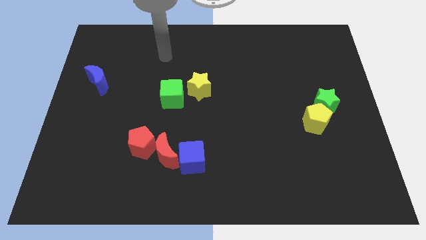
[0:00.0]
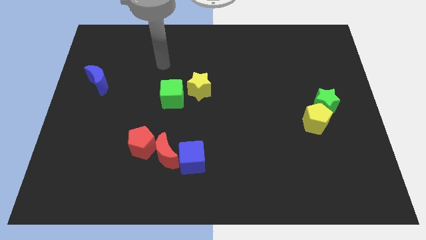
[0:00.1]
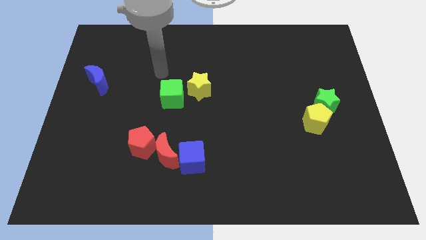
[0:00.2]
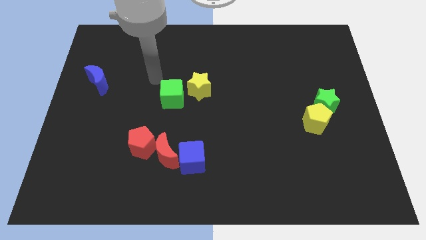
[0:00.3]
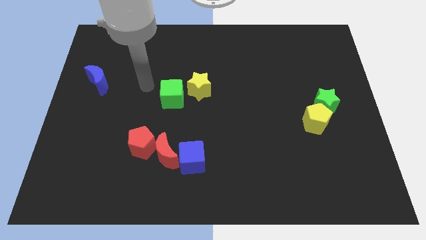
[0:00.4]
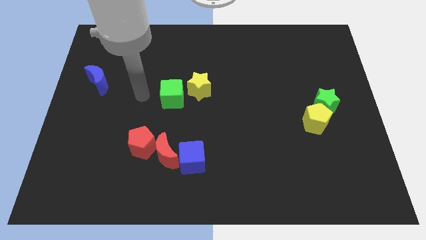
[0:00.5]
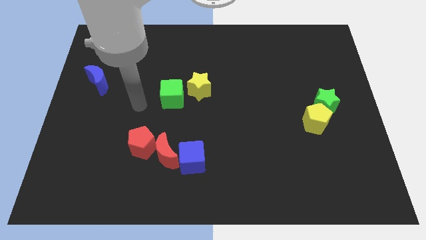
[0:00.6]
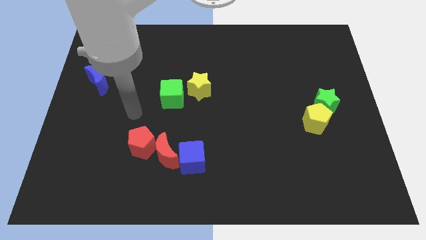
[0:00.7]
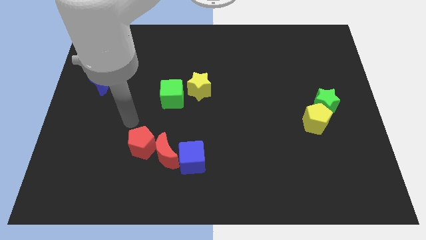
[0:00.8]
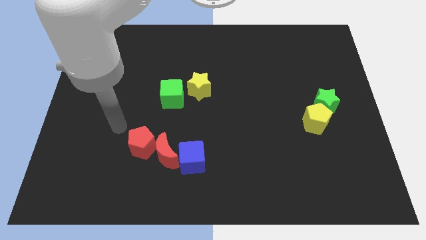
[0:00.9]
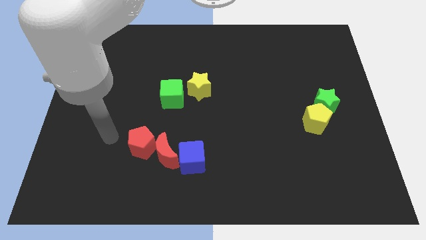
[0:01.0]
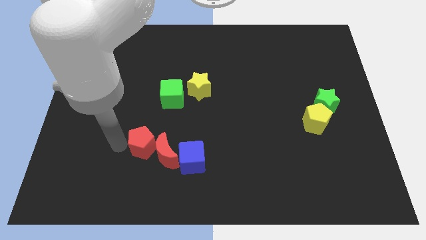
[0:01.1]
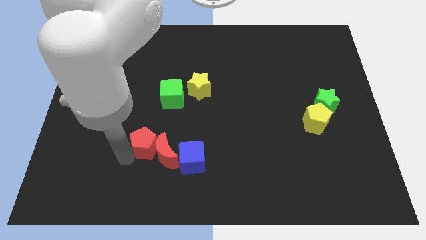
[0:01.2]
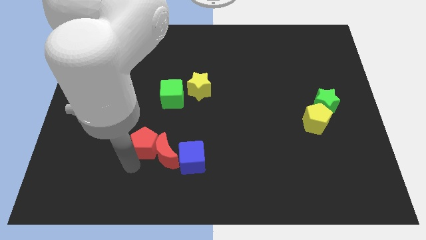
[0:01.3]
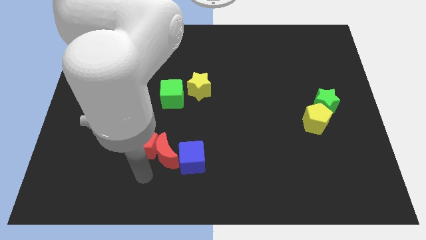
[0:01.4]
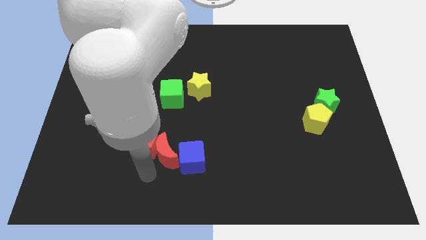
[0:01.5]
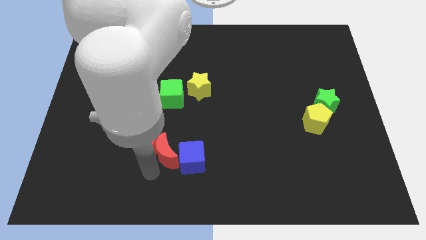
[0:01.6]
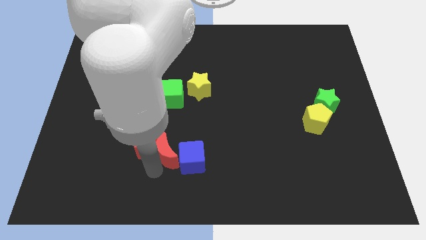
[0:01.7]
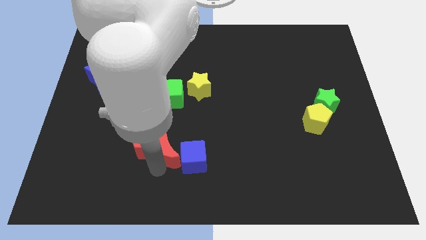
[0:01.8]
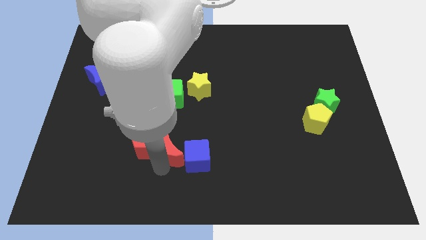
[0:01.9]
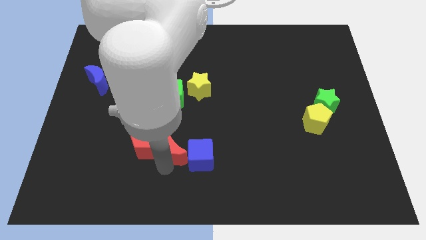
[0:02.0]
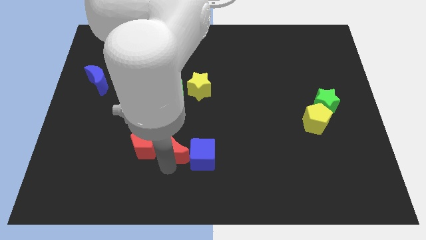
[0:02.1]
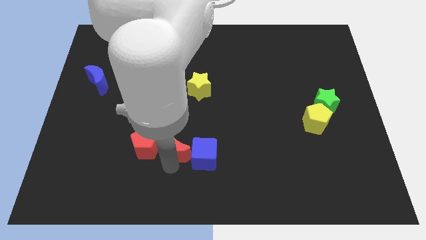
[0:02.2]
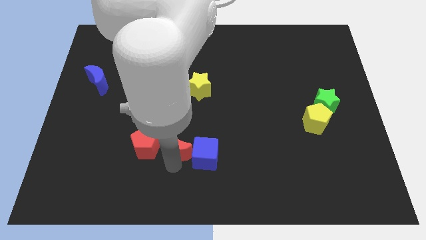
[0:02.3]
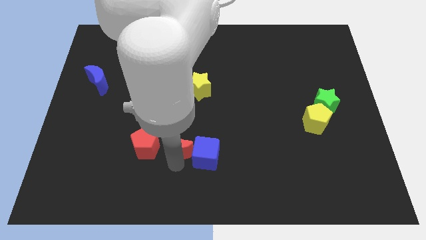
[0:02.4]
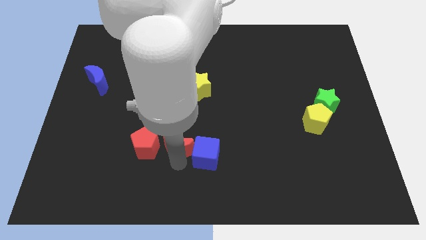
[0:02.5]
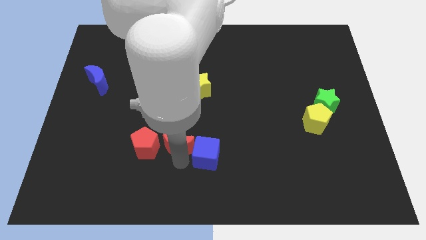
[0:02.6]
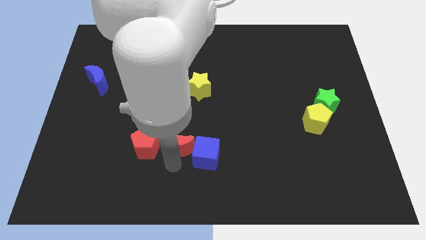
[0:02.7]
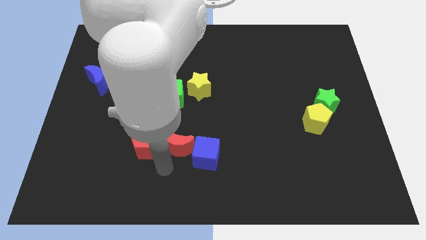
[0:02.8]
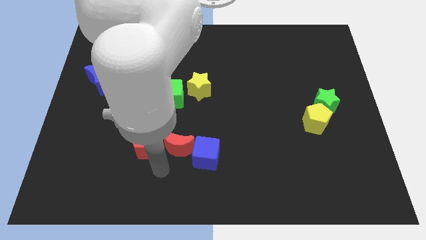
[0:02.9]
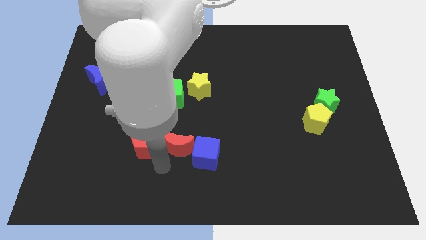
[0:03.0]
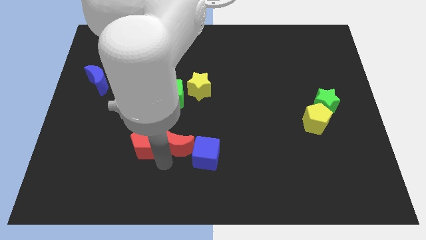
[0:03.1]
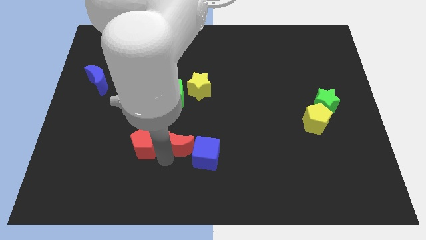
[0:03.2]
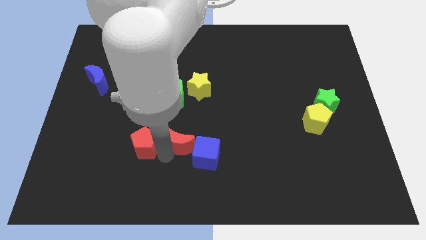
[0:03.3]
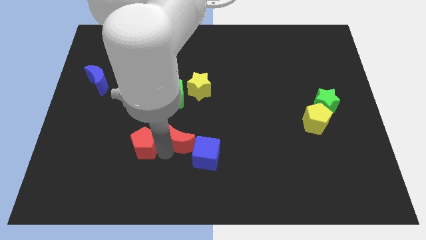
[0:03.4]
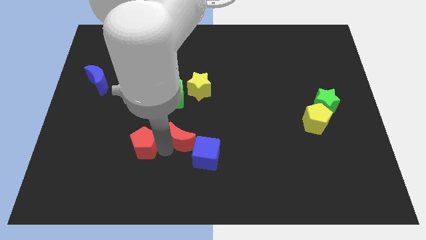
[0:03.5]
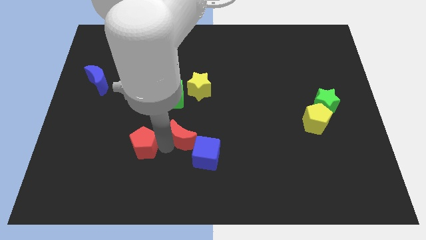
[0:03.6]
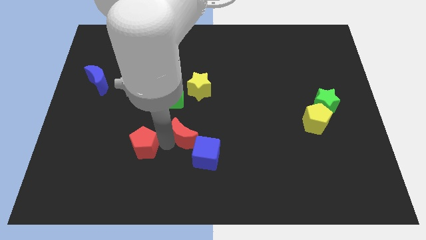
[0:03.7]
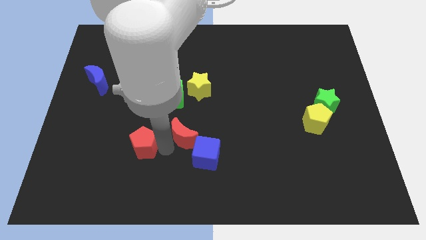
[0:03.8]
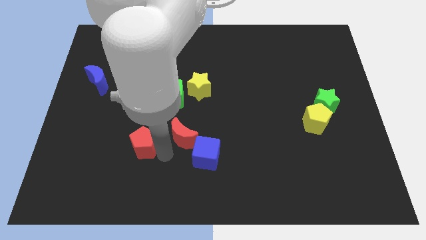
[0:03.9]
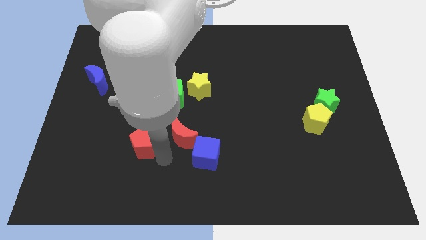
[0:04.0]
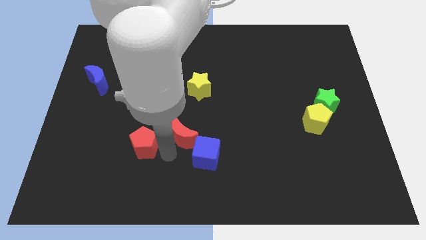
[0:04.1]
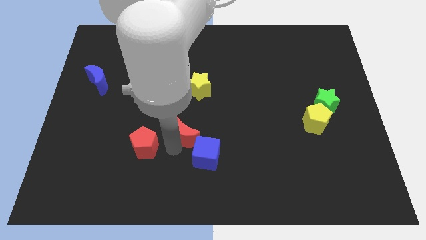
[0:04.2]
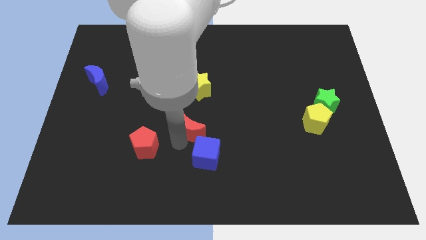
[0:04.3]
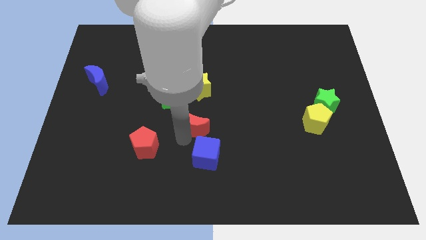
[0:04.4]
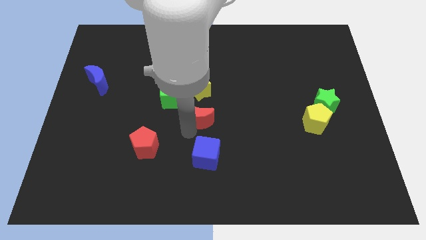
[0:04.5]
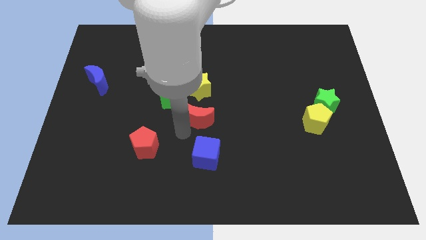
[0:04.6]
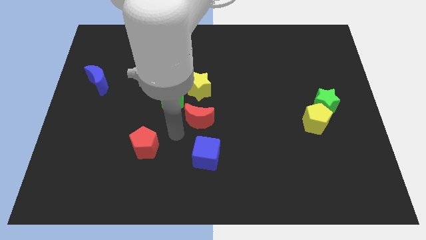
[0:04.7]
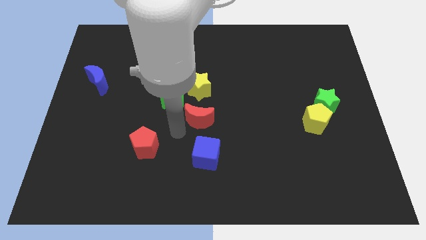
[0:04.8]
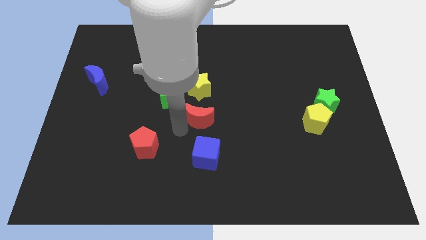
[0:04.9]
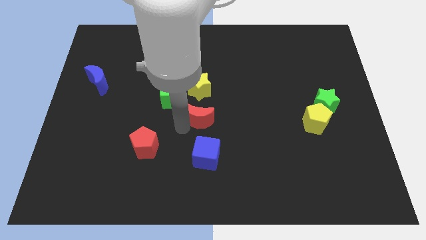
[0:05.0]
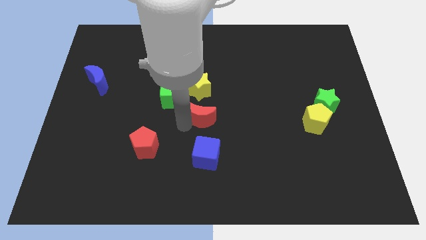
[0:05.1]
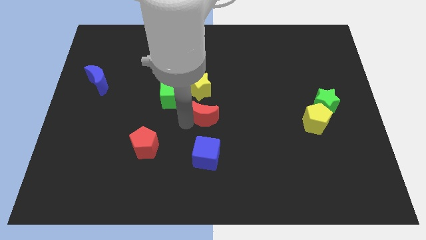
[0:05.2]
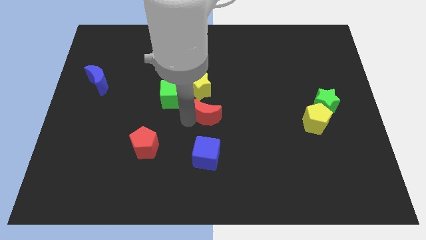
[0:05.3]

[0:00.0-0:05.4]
push the red moon to the bottom right side of the yellow star

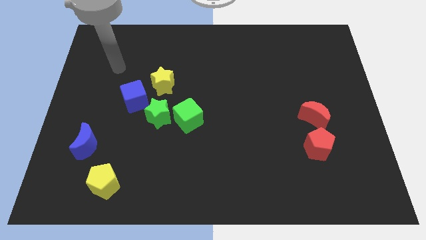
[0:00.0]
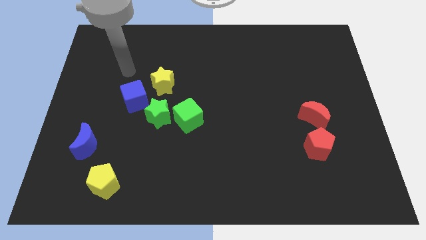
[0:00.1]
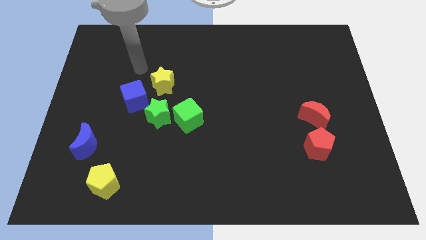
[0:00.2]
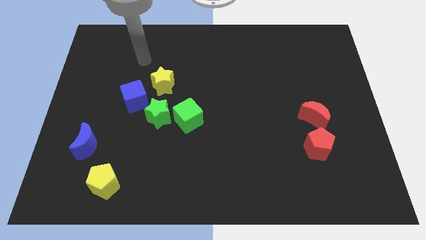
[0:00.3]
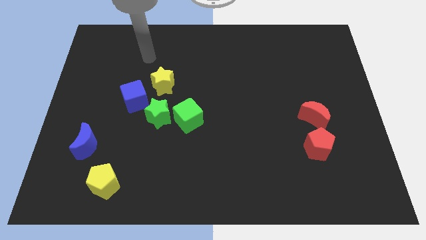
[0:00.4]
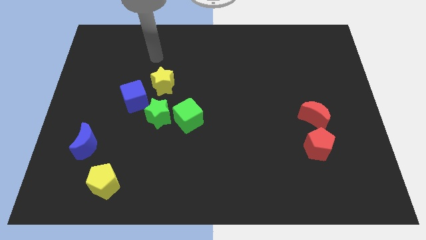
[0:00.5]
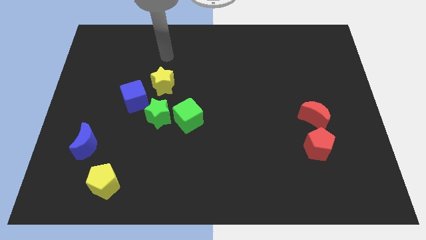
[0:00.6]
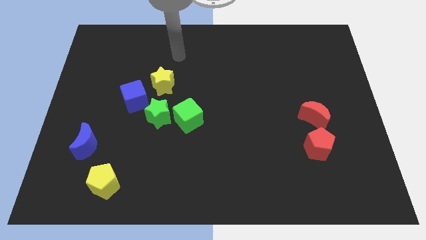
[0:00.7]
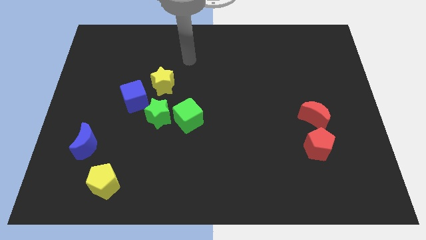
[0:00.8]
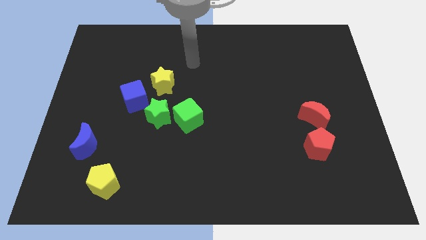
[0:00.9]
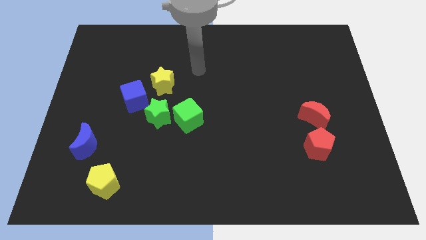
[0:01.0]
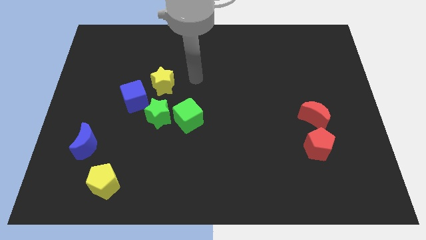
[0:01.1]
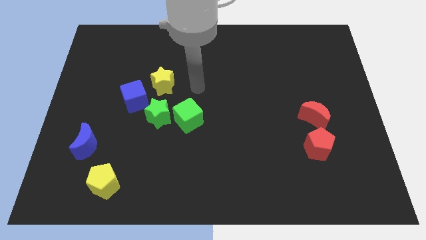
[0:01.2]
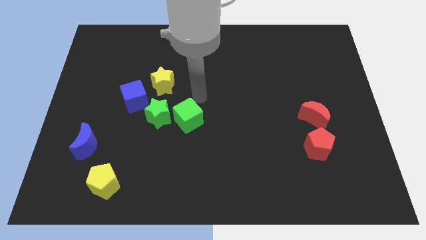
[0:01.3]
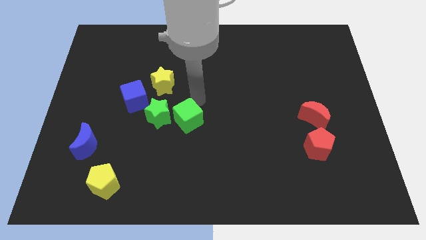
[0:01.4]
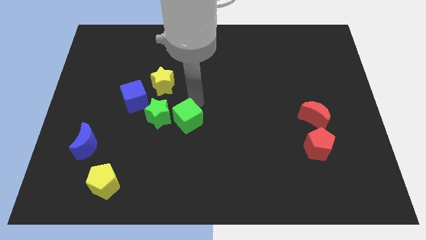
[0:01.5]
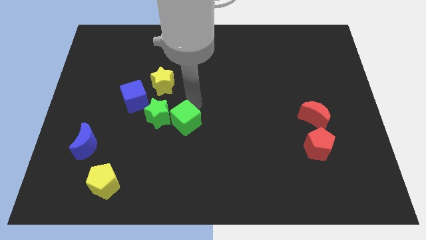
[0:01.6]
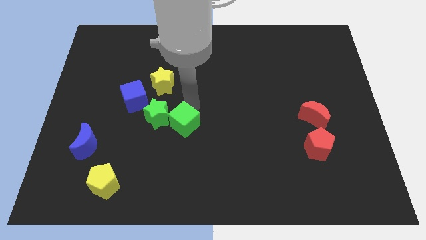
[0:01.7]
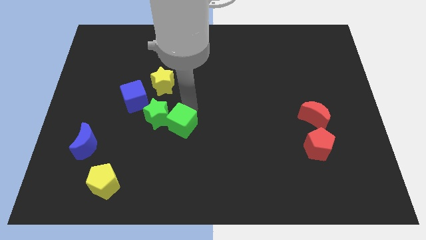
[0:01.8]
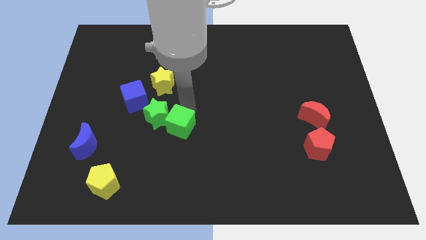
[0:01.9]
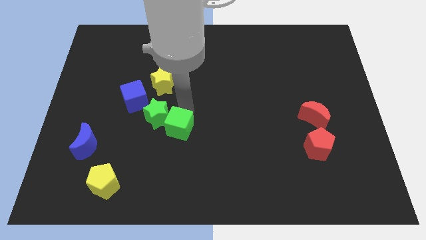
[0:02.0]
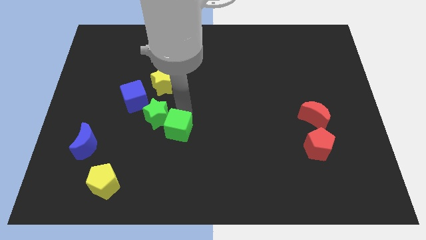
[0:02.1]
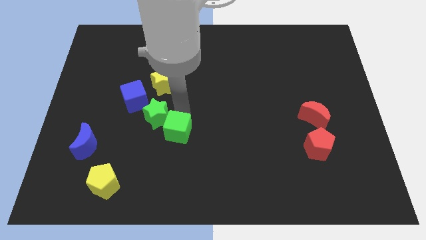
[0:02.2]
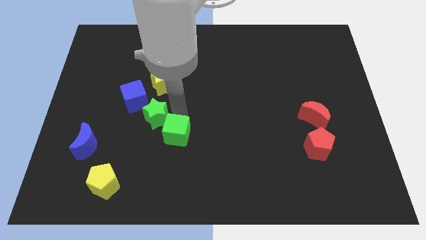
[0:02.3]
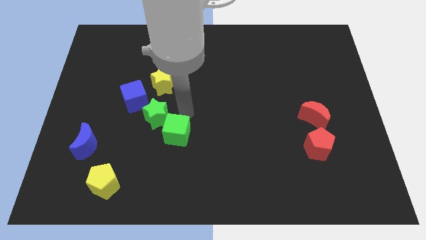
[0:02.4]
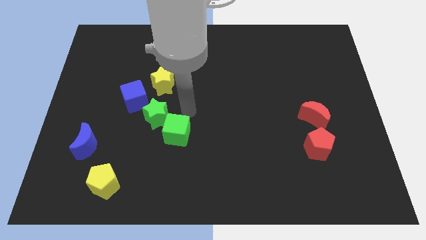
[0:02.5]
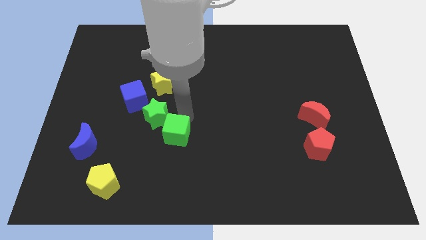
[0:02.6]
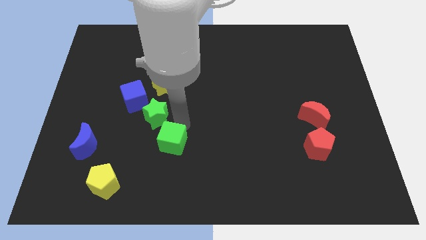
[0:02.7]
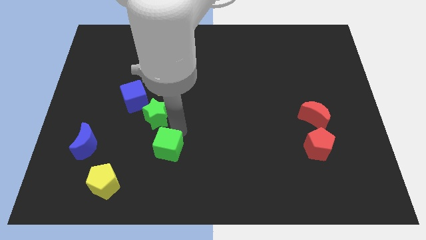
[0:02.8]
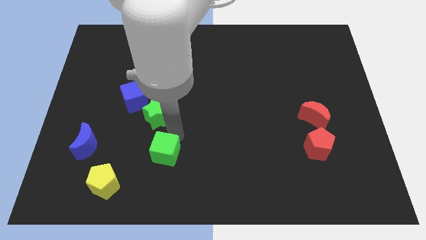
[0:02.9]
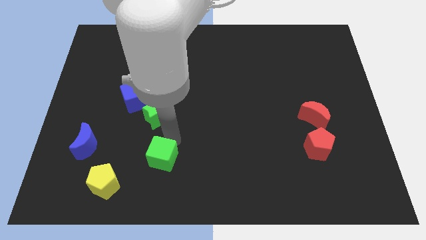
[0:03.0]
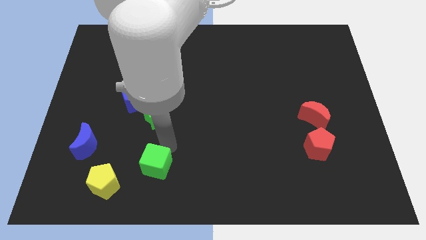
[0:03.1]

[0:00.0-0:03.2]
slide the green cube to the right of the yellow pentagon
